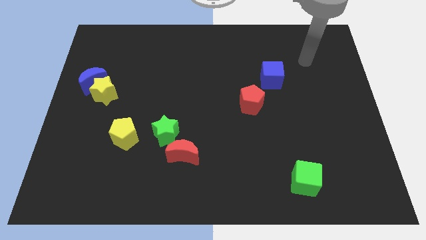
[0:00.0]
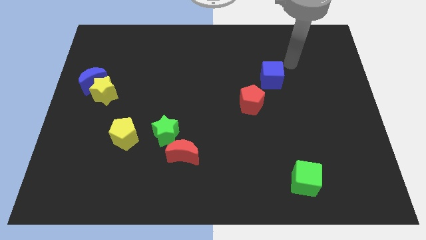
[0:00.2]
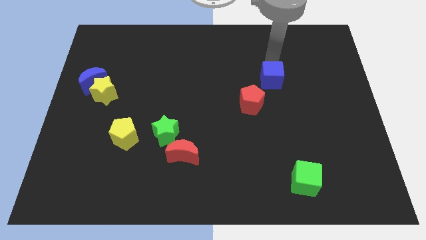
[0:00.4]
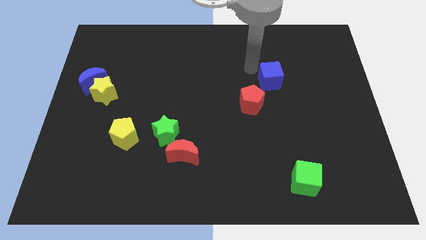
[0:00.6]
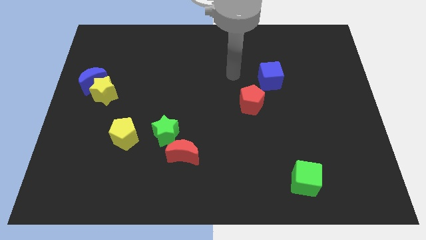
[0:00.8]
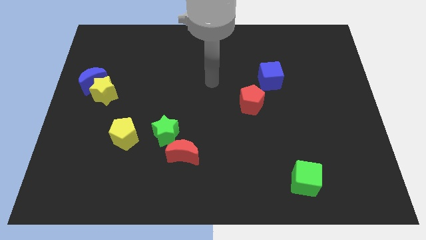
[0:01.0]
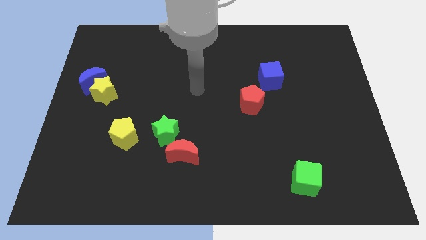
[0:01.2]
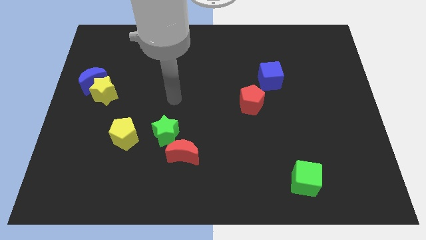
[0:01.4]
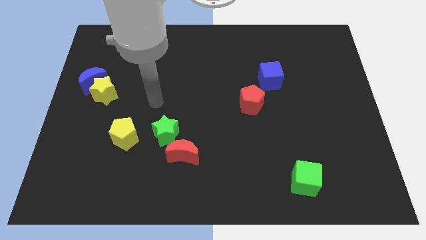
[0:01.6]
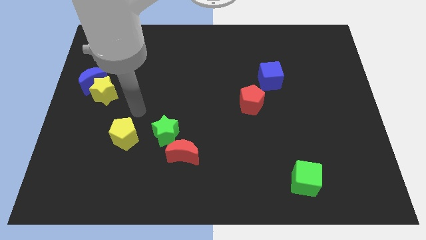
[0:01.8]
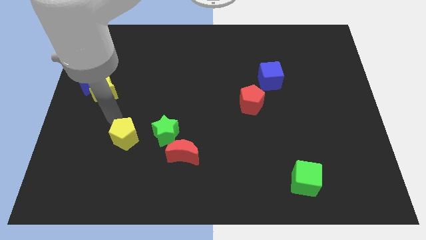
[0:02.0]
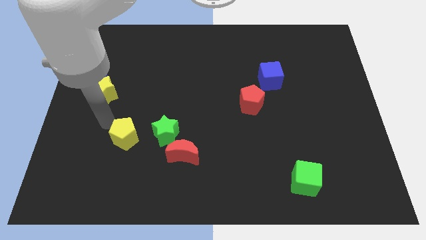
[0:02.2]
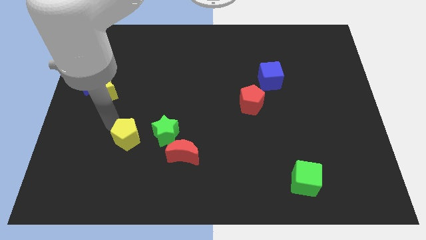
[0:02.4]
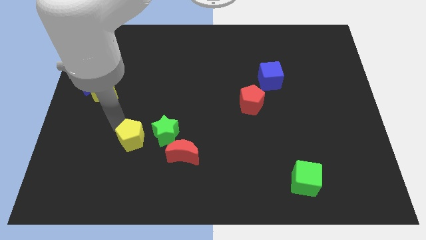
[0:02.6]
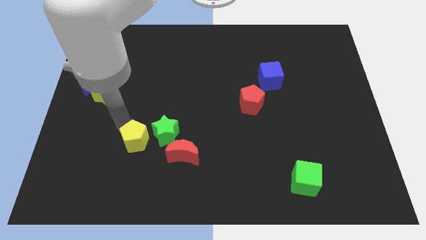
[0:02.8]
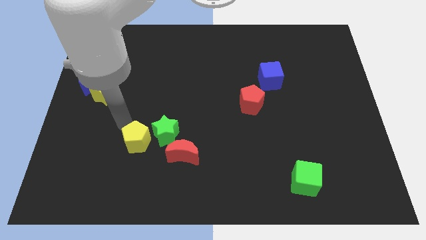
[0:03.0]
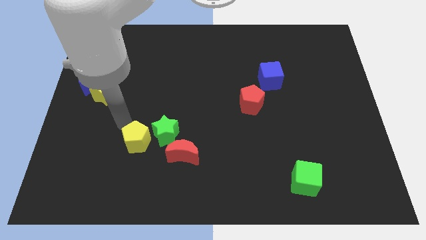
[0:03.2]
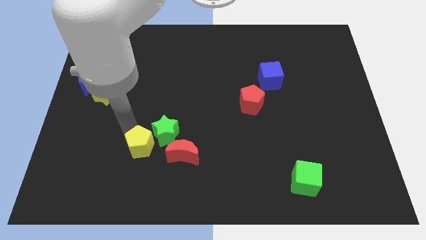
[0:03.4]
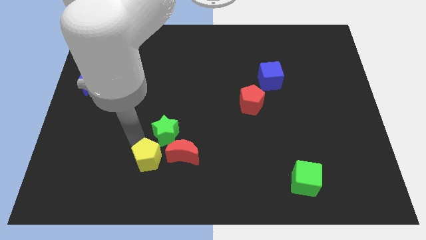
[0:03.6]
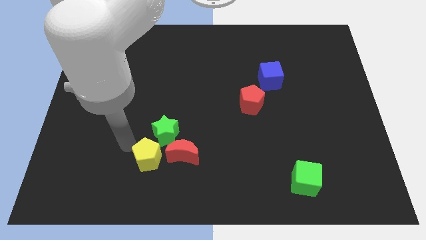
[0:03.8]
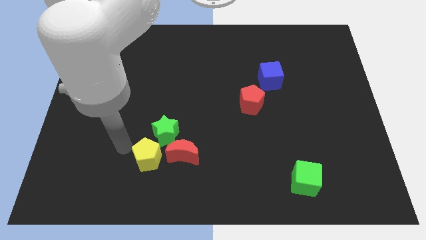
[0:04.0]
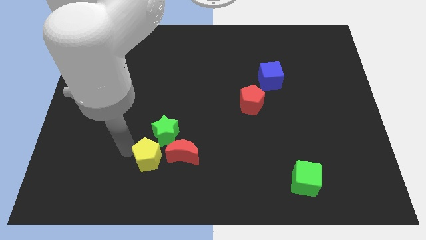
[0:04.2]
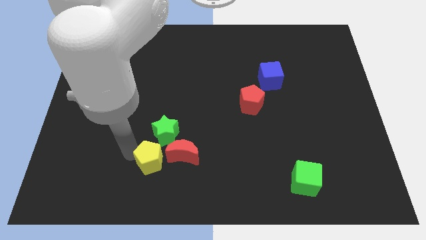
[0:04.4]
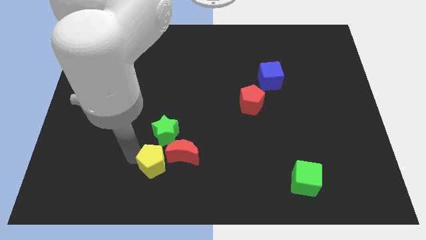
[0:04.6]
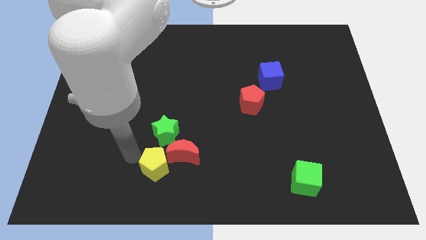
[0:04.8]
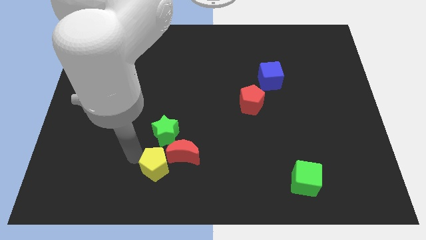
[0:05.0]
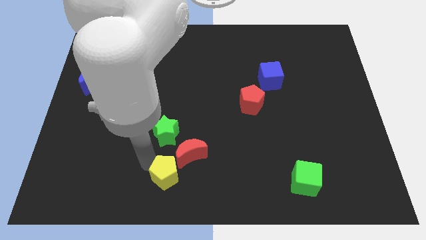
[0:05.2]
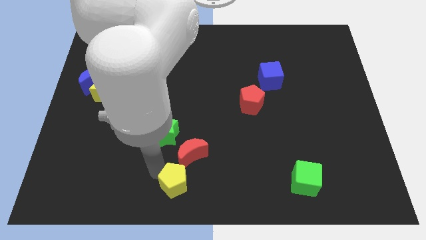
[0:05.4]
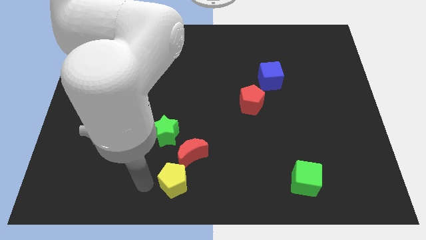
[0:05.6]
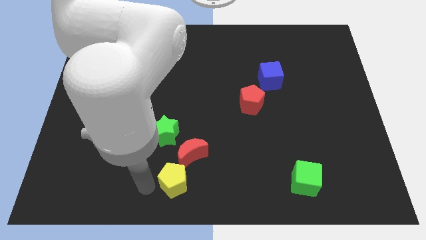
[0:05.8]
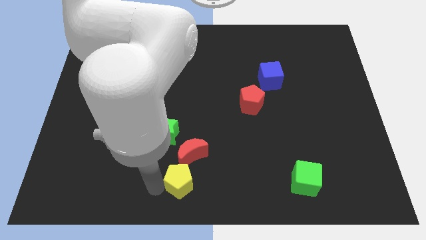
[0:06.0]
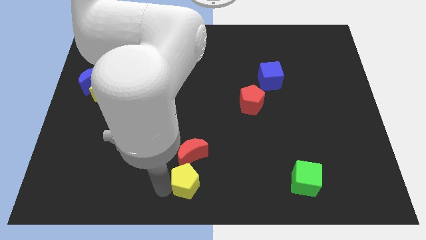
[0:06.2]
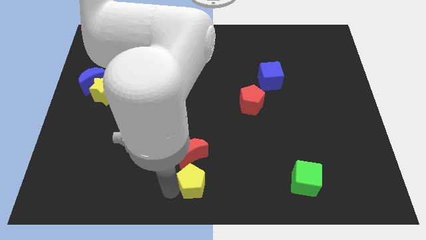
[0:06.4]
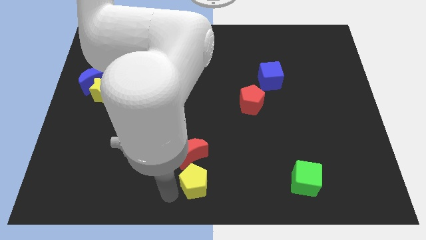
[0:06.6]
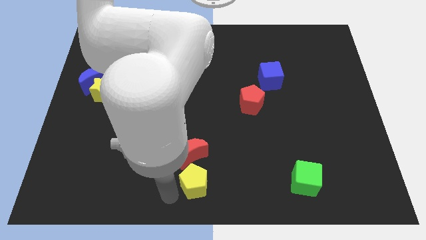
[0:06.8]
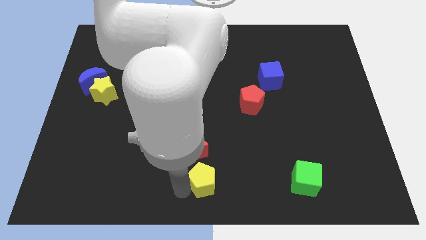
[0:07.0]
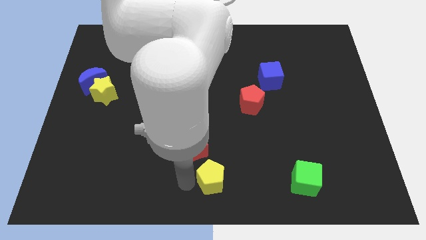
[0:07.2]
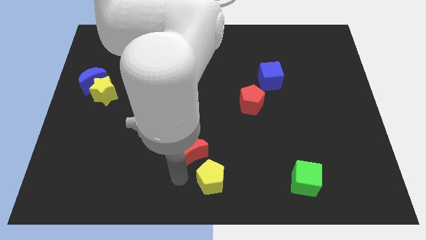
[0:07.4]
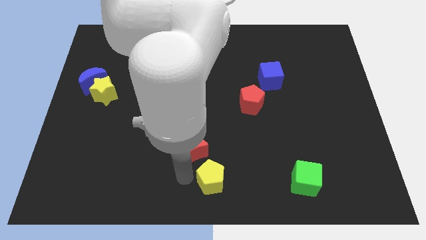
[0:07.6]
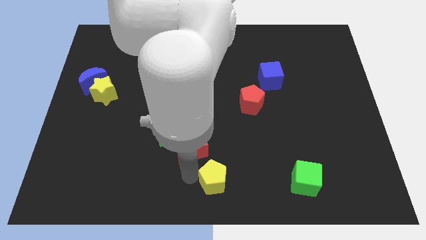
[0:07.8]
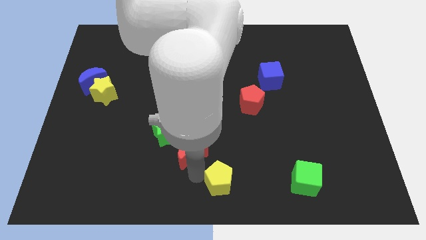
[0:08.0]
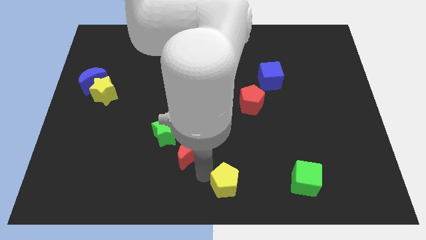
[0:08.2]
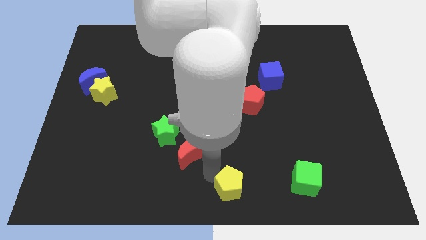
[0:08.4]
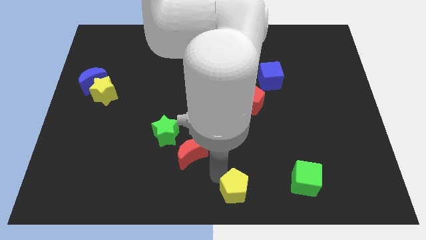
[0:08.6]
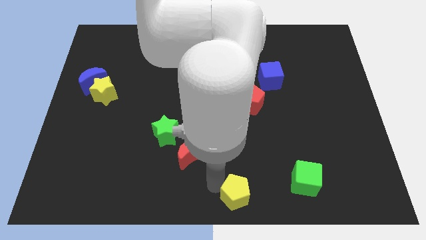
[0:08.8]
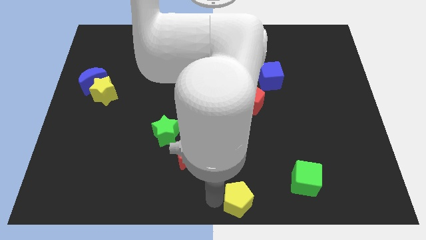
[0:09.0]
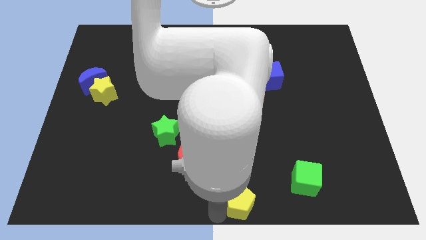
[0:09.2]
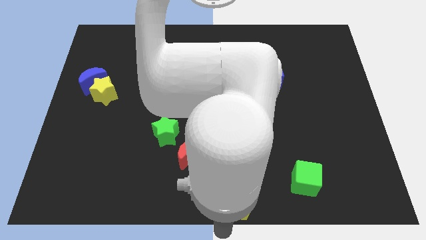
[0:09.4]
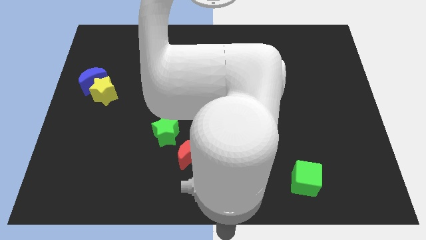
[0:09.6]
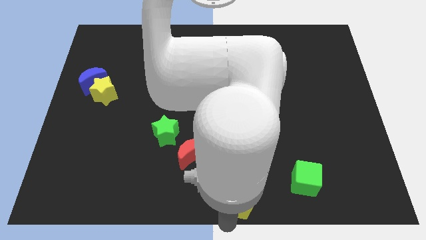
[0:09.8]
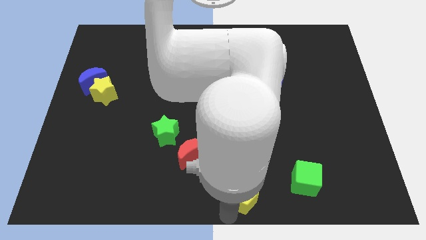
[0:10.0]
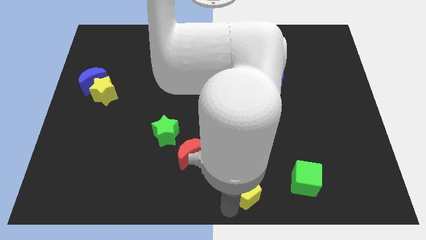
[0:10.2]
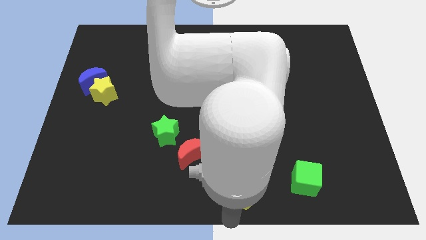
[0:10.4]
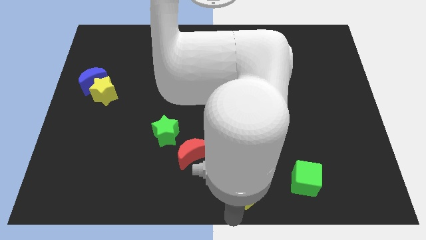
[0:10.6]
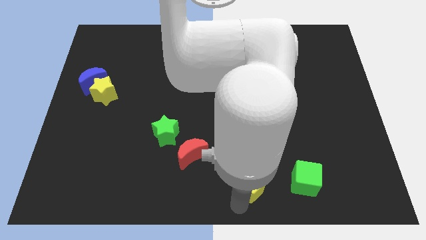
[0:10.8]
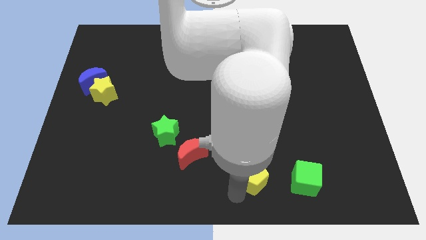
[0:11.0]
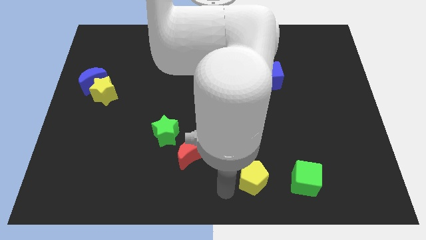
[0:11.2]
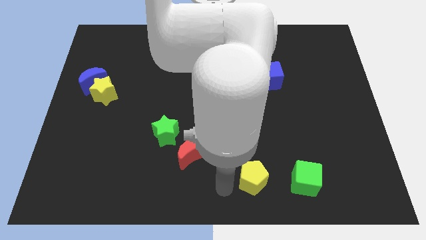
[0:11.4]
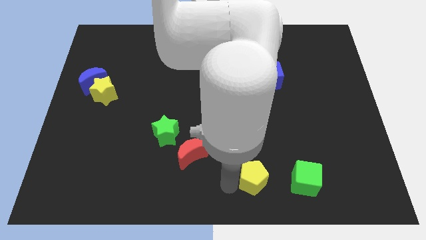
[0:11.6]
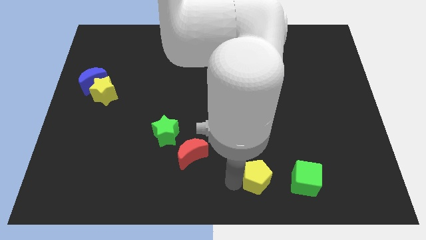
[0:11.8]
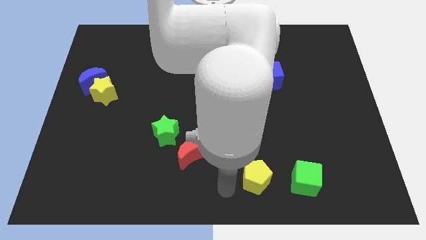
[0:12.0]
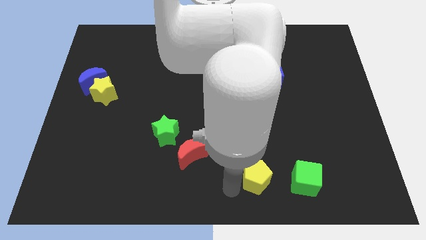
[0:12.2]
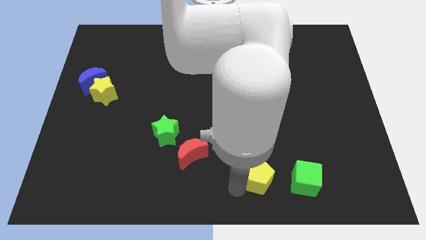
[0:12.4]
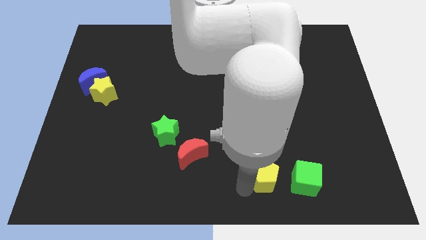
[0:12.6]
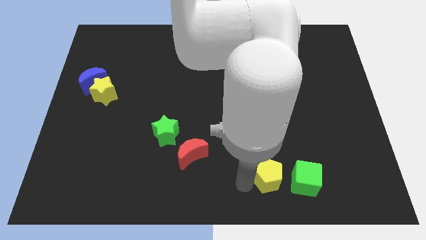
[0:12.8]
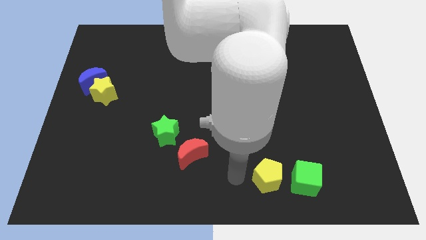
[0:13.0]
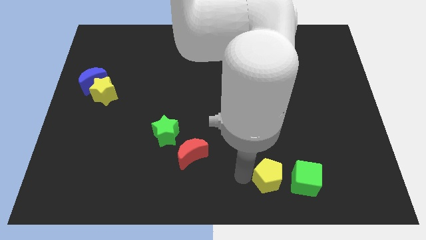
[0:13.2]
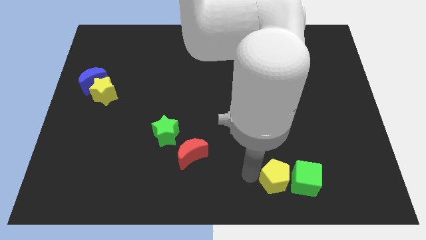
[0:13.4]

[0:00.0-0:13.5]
put the yellow pentagon next to the green cube
